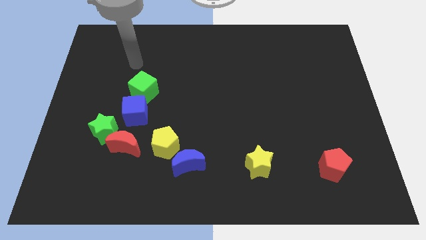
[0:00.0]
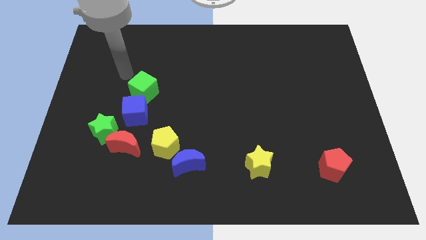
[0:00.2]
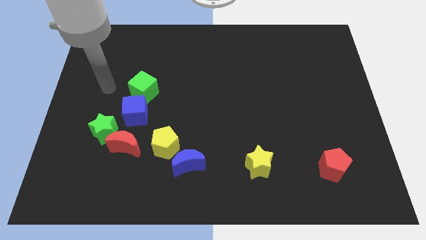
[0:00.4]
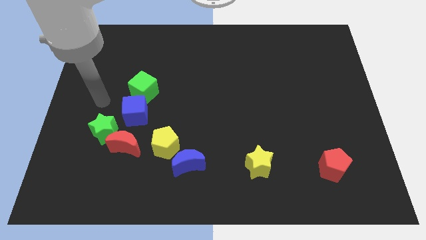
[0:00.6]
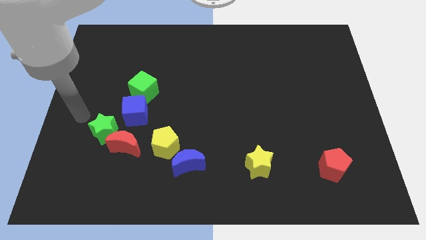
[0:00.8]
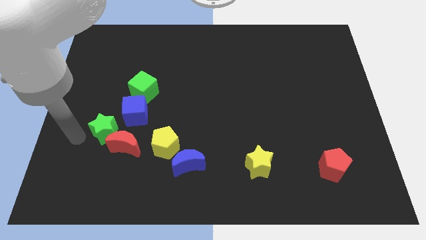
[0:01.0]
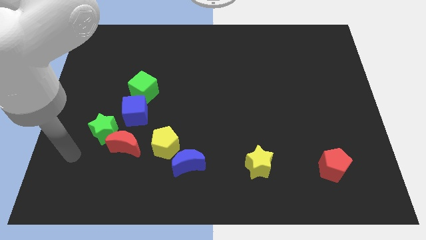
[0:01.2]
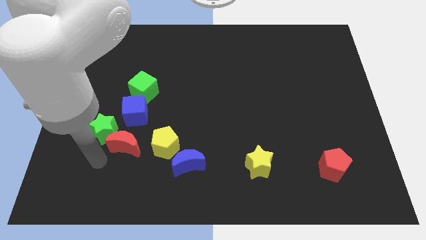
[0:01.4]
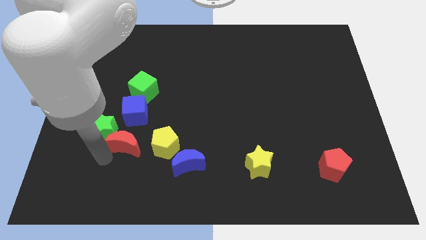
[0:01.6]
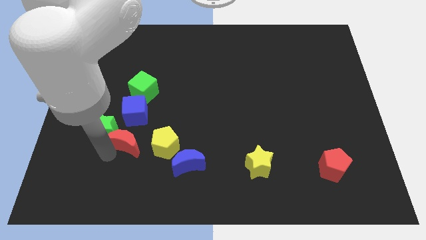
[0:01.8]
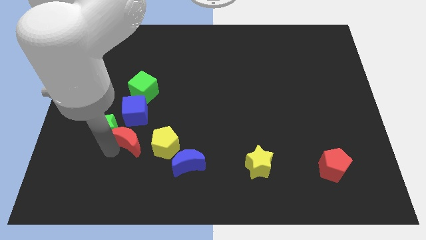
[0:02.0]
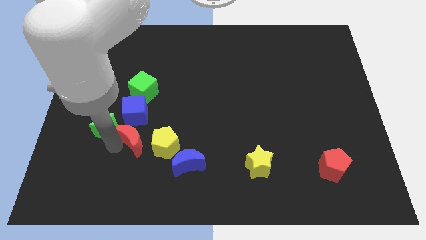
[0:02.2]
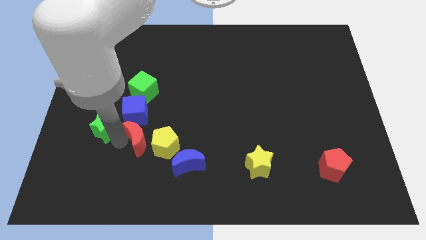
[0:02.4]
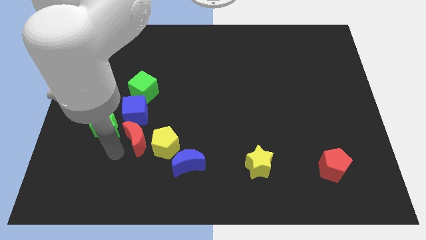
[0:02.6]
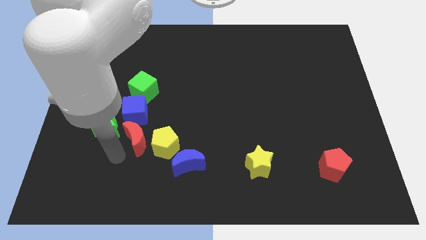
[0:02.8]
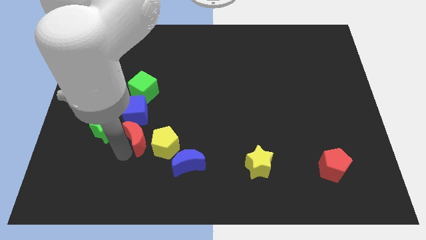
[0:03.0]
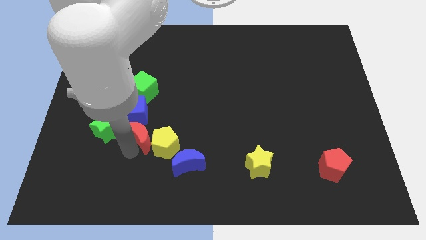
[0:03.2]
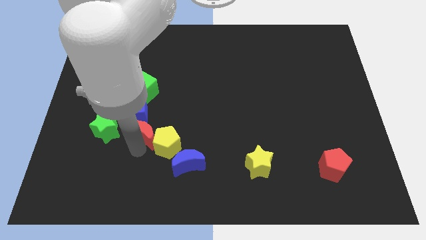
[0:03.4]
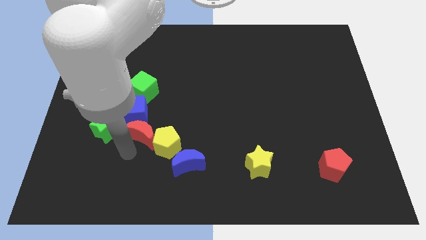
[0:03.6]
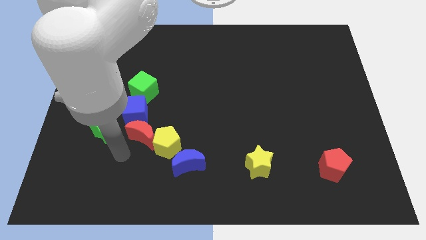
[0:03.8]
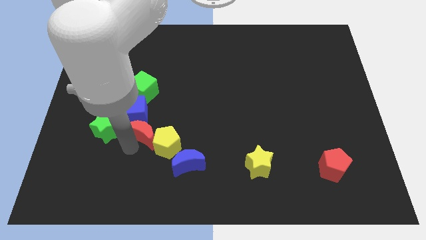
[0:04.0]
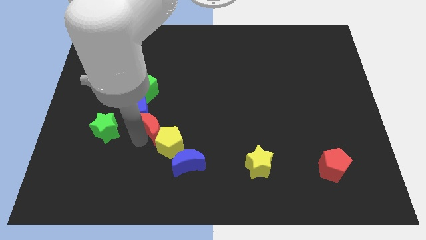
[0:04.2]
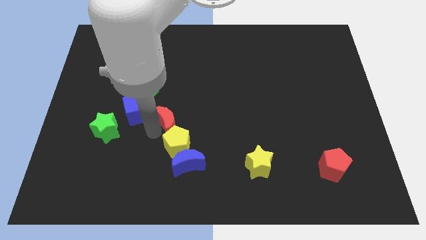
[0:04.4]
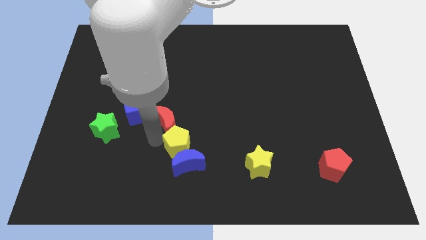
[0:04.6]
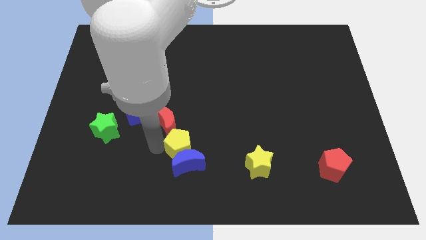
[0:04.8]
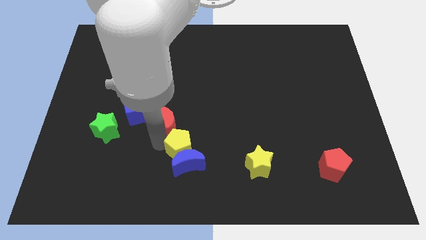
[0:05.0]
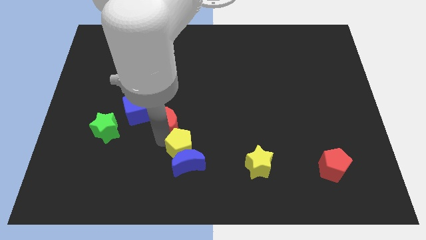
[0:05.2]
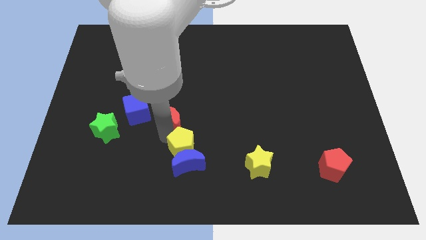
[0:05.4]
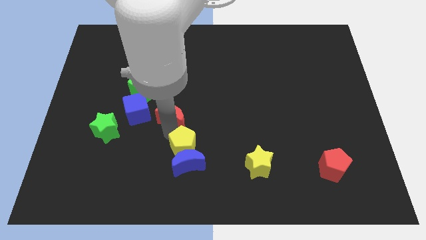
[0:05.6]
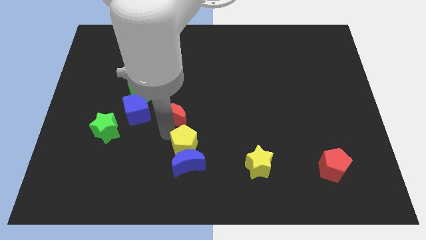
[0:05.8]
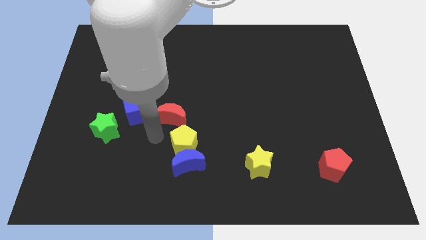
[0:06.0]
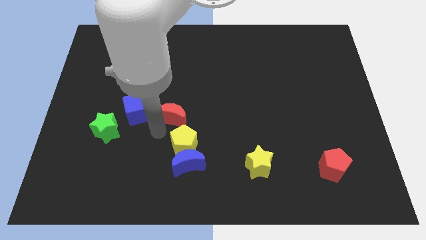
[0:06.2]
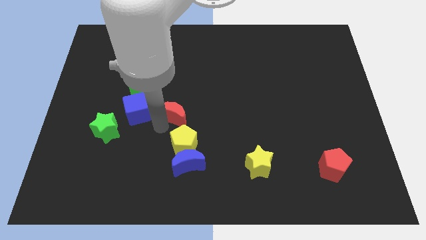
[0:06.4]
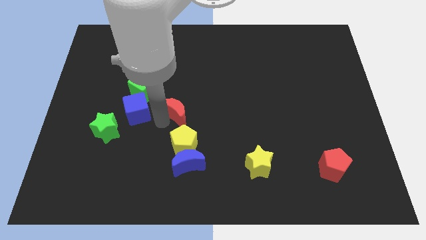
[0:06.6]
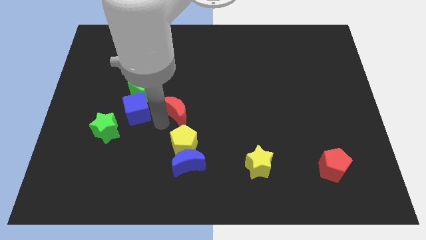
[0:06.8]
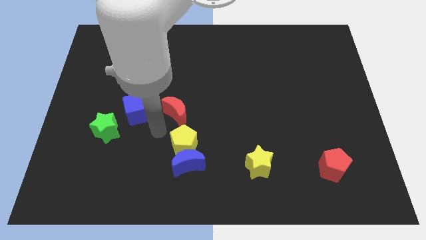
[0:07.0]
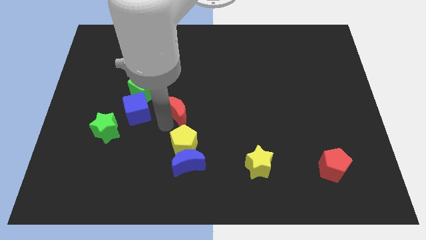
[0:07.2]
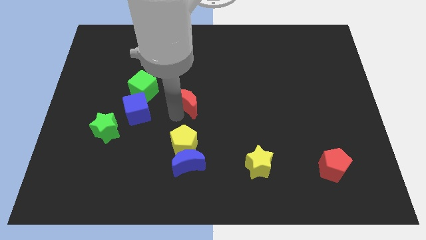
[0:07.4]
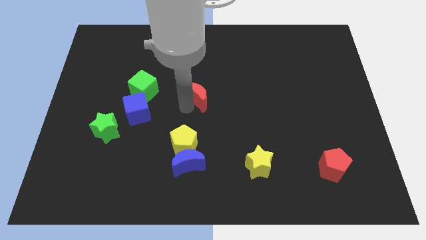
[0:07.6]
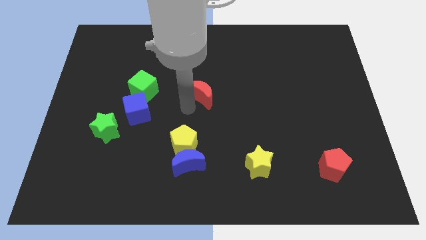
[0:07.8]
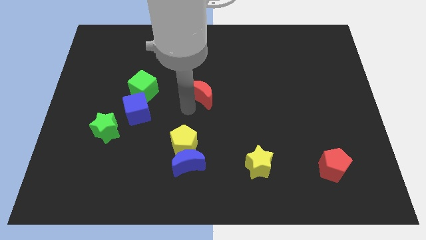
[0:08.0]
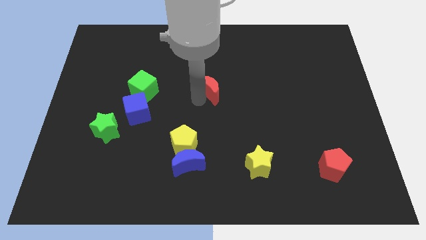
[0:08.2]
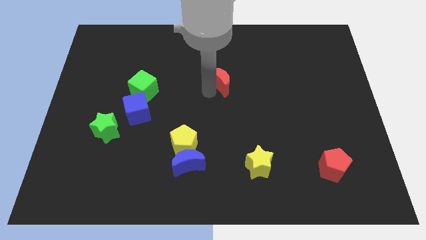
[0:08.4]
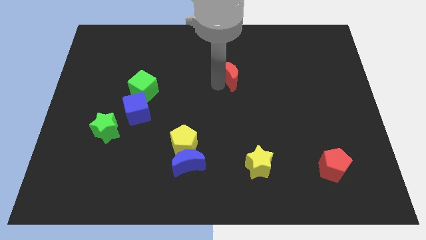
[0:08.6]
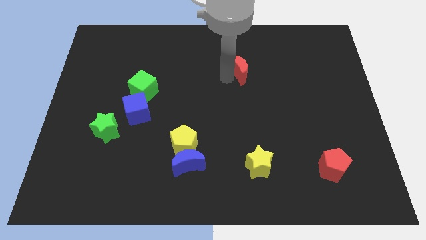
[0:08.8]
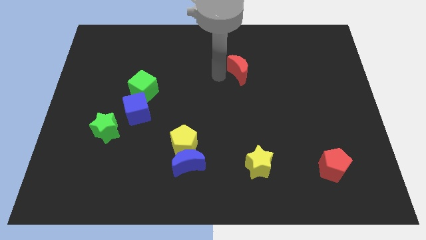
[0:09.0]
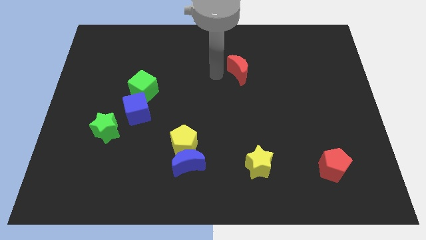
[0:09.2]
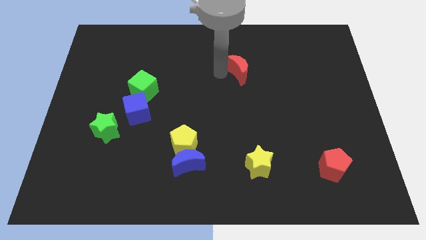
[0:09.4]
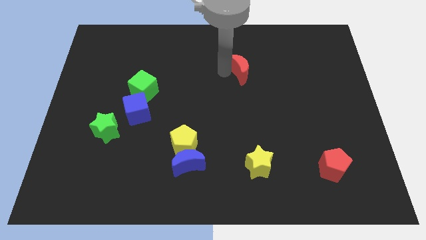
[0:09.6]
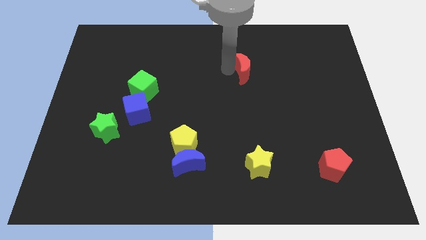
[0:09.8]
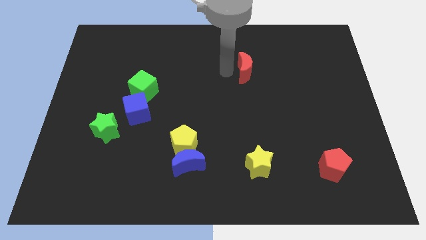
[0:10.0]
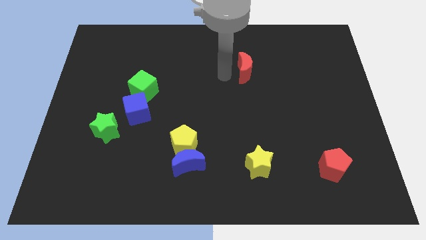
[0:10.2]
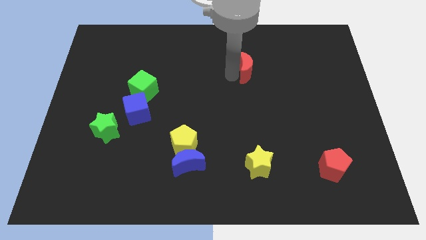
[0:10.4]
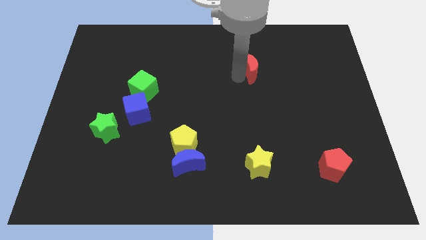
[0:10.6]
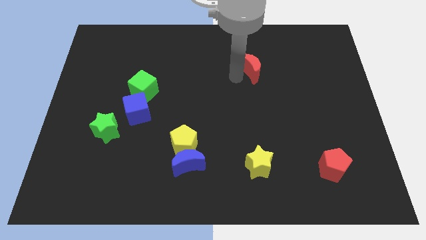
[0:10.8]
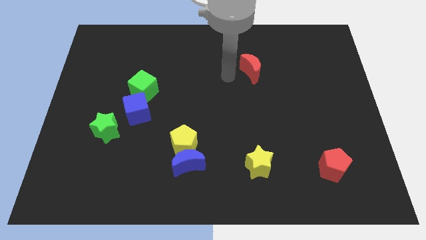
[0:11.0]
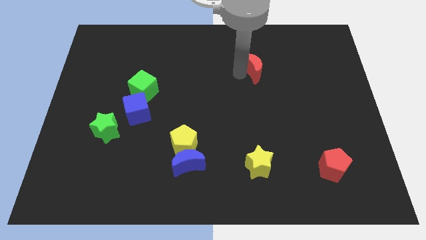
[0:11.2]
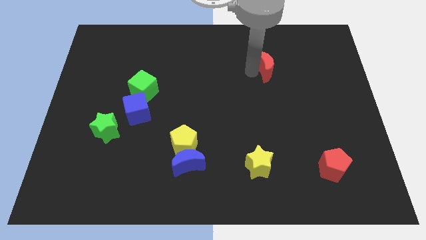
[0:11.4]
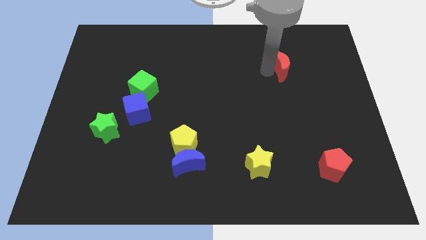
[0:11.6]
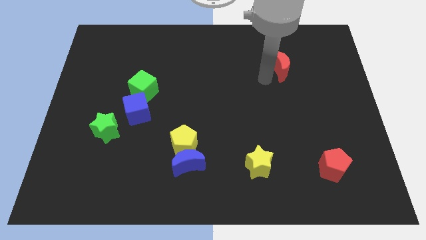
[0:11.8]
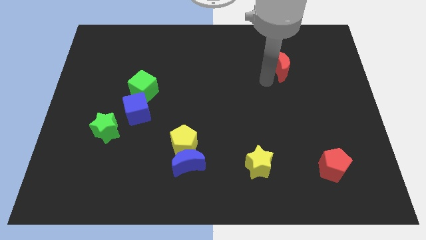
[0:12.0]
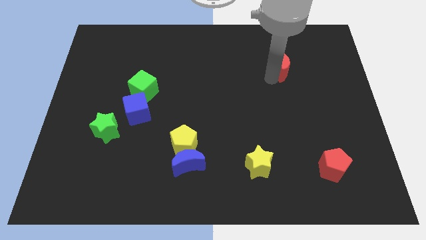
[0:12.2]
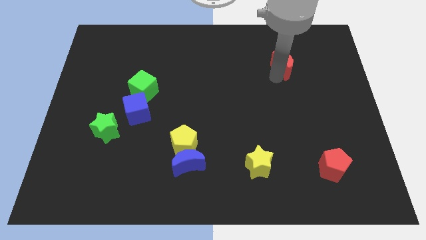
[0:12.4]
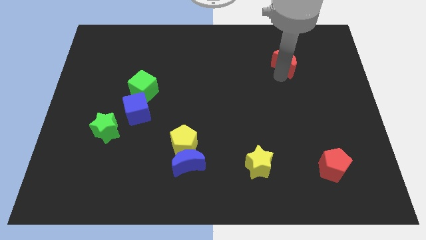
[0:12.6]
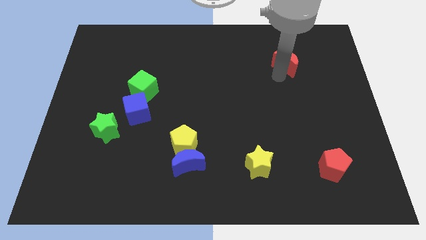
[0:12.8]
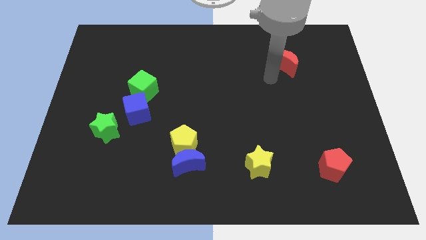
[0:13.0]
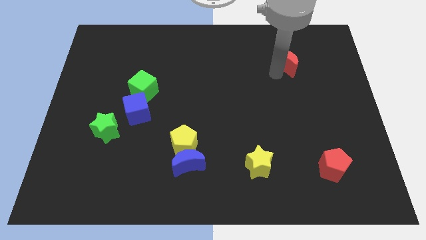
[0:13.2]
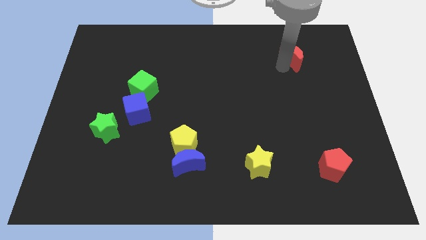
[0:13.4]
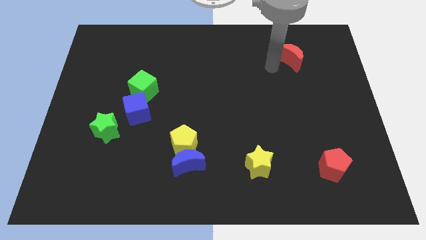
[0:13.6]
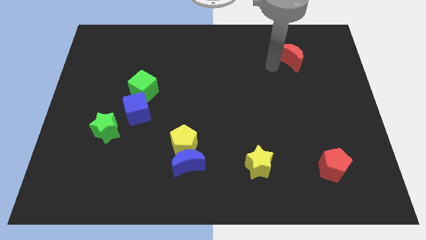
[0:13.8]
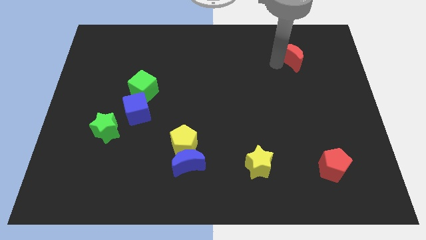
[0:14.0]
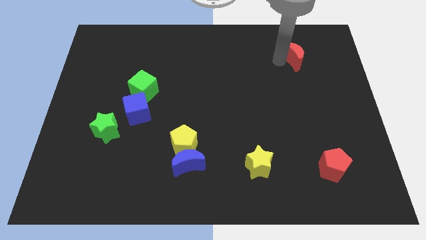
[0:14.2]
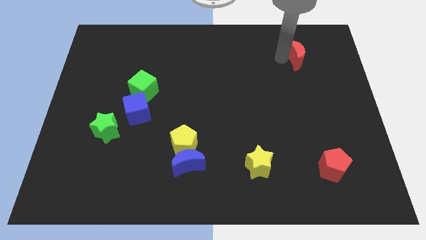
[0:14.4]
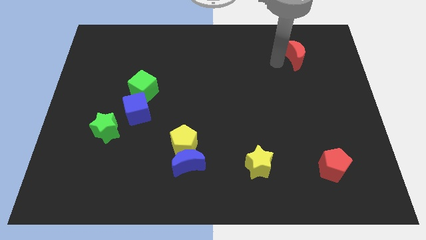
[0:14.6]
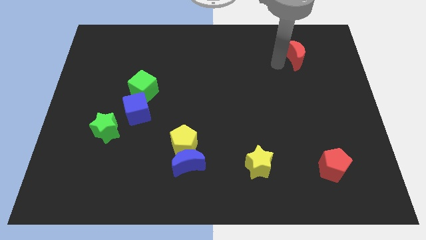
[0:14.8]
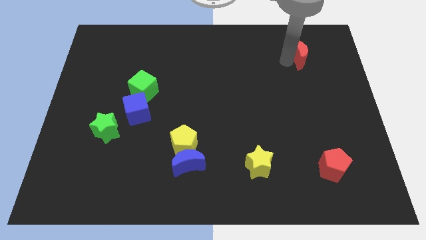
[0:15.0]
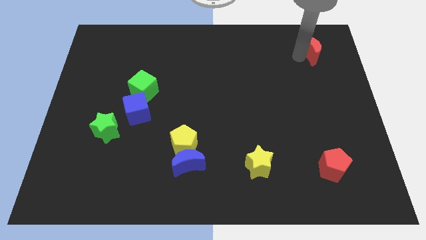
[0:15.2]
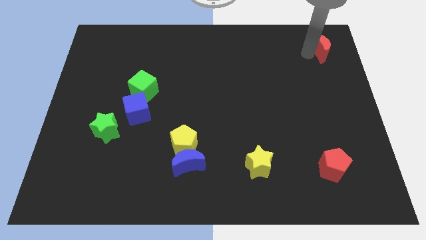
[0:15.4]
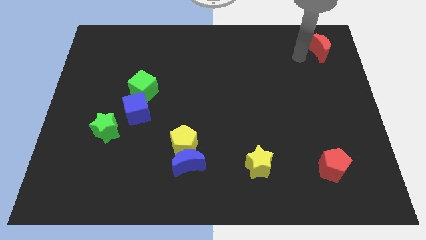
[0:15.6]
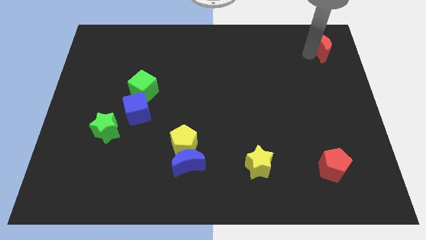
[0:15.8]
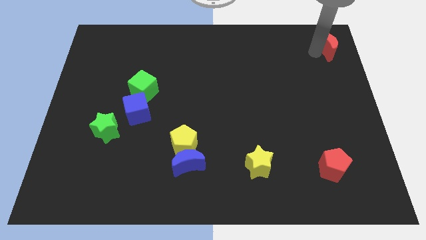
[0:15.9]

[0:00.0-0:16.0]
move the red moon to the top right
